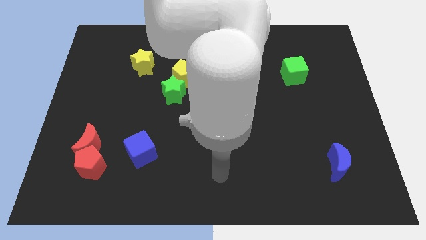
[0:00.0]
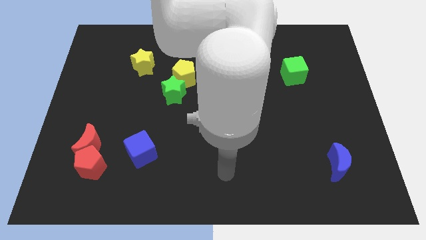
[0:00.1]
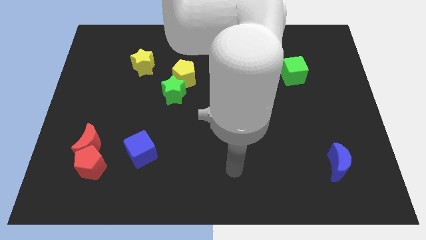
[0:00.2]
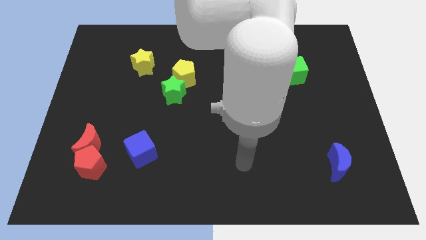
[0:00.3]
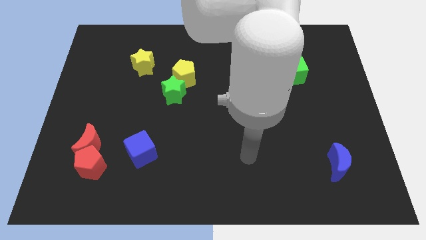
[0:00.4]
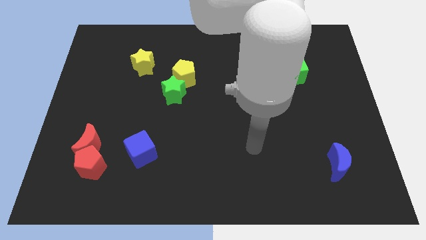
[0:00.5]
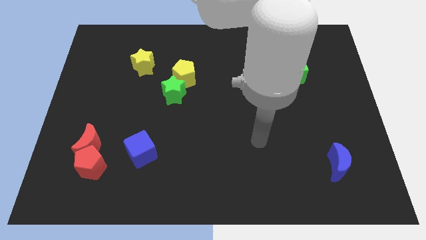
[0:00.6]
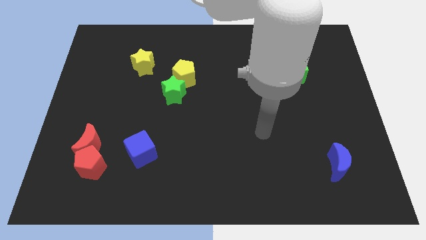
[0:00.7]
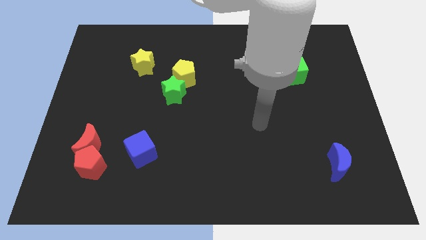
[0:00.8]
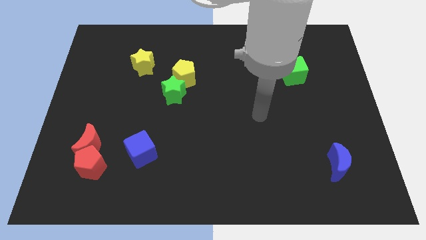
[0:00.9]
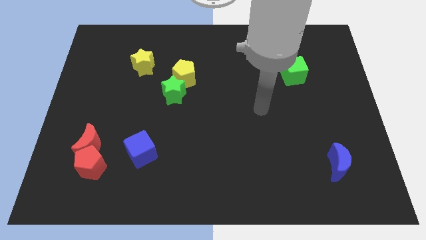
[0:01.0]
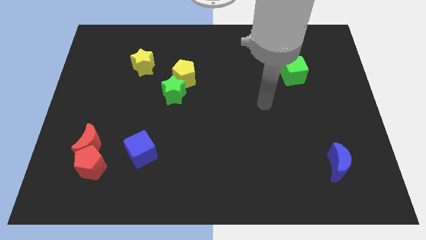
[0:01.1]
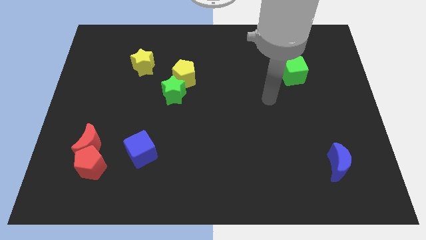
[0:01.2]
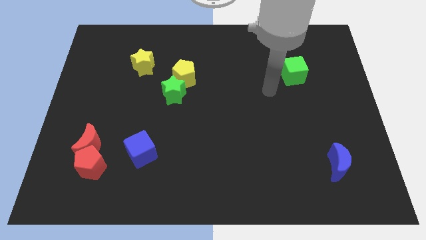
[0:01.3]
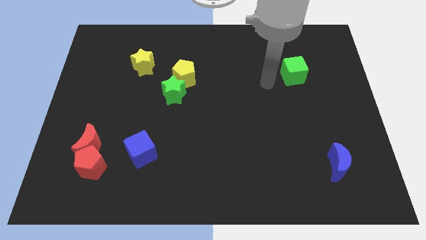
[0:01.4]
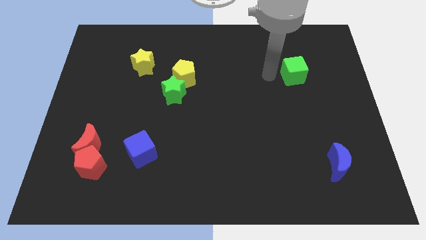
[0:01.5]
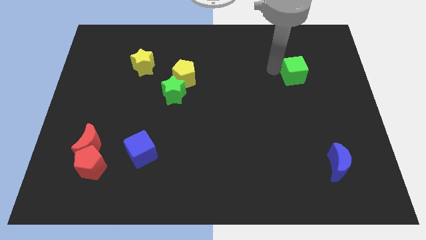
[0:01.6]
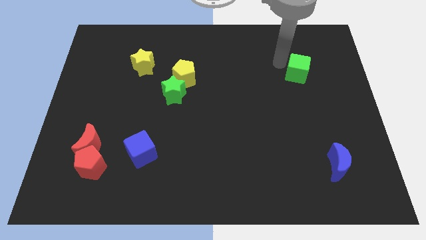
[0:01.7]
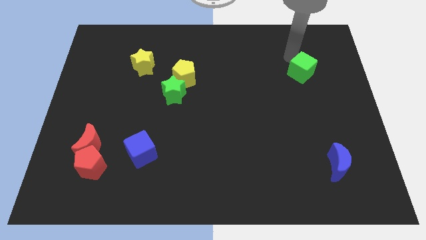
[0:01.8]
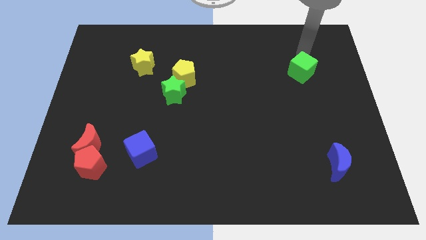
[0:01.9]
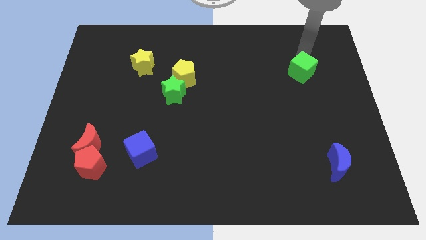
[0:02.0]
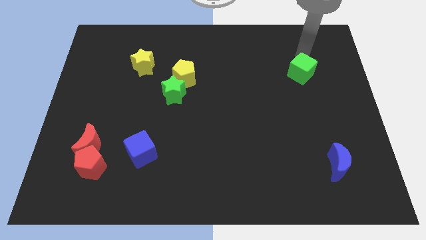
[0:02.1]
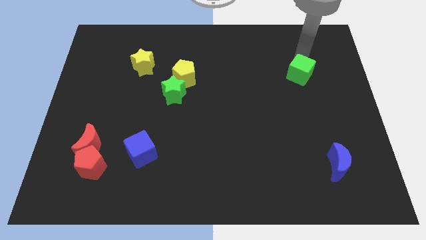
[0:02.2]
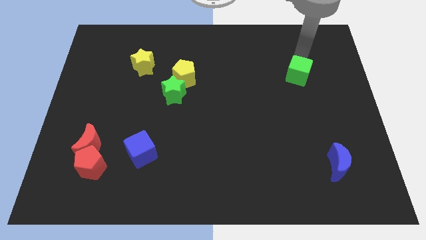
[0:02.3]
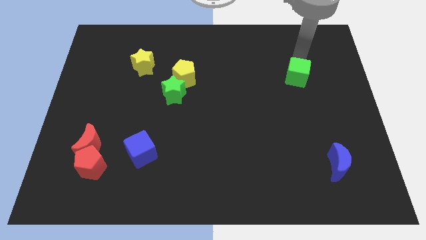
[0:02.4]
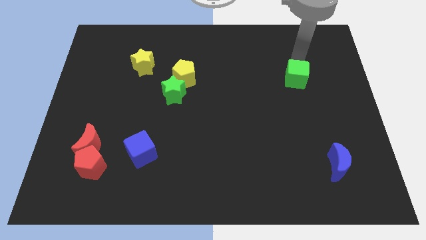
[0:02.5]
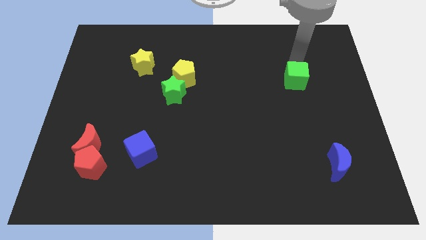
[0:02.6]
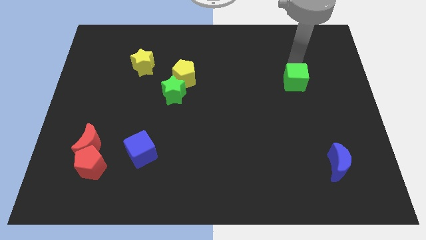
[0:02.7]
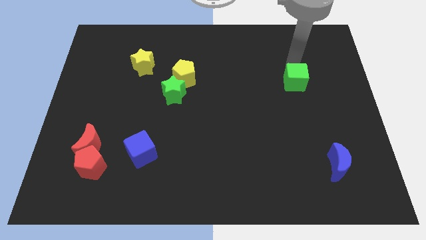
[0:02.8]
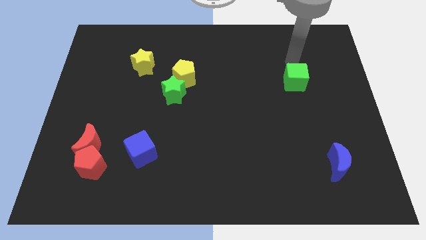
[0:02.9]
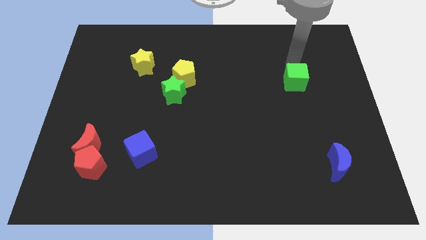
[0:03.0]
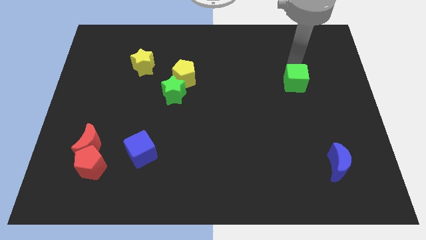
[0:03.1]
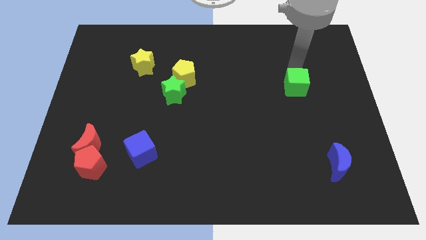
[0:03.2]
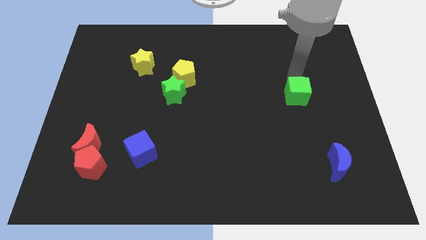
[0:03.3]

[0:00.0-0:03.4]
slightly push the green cube downwards

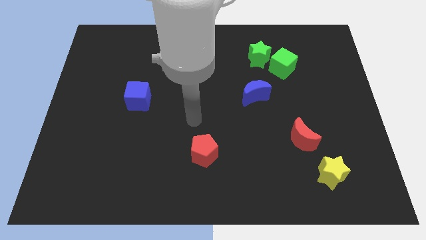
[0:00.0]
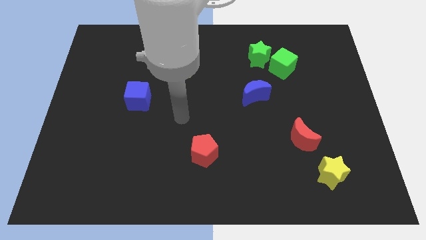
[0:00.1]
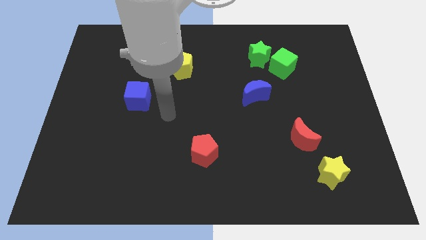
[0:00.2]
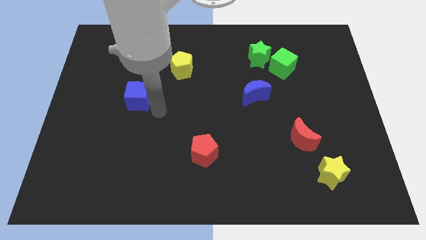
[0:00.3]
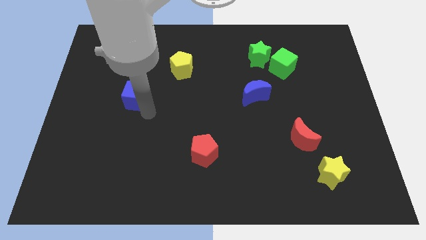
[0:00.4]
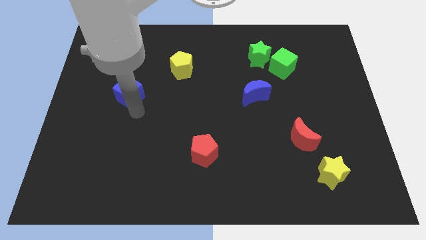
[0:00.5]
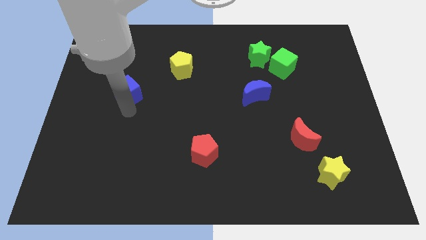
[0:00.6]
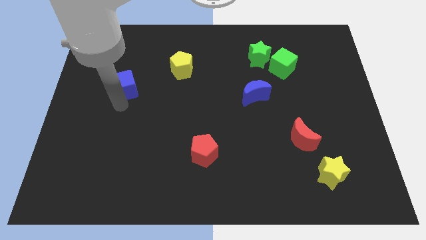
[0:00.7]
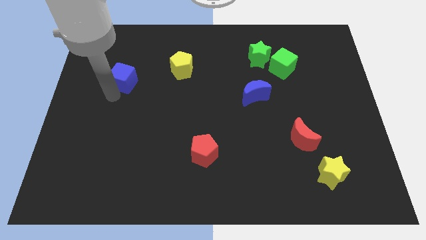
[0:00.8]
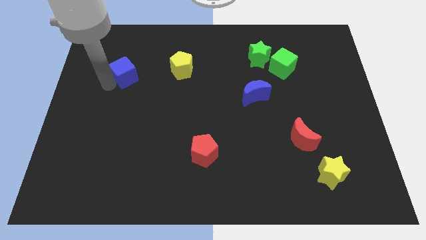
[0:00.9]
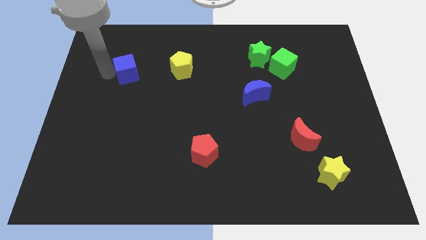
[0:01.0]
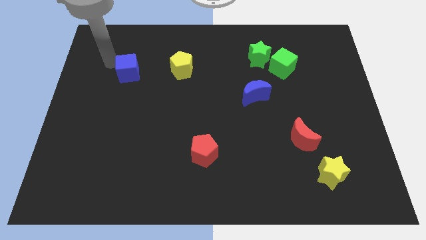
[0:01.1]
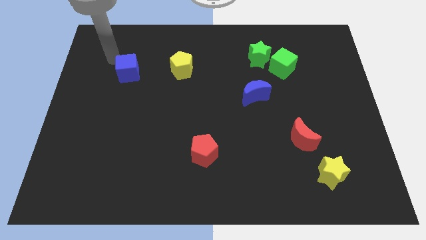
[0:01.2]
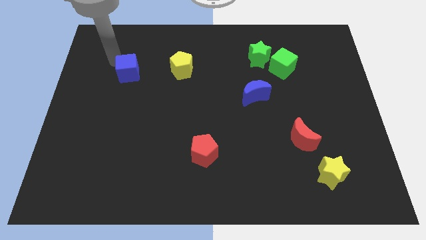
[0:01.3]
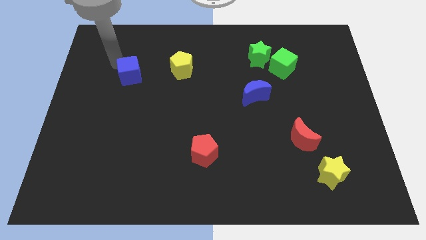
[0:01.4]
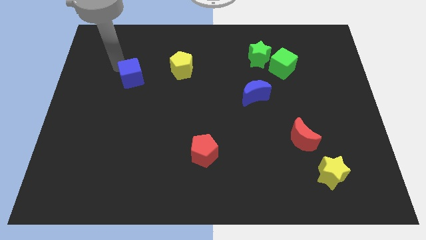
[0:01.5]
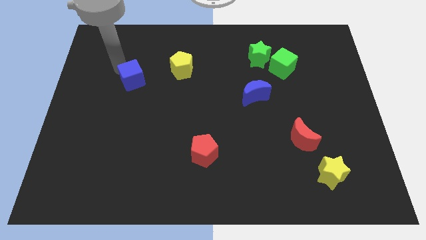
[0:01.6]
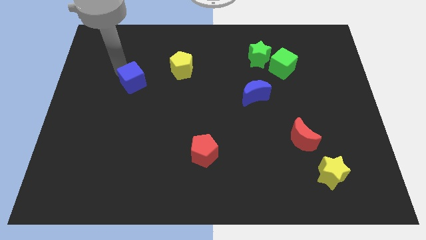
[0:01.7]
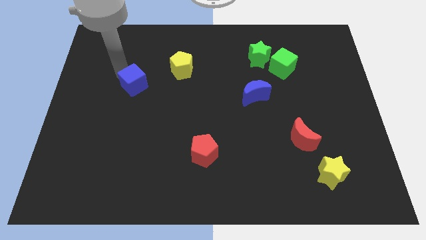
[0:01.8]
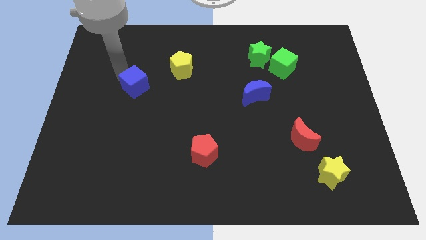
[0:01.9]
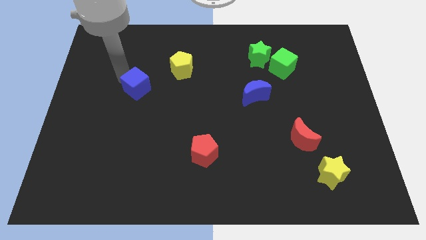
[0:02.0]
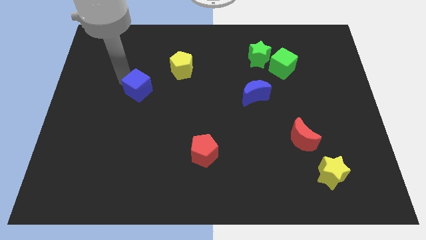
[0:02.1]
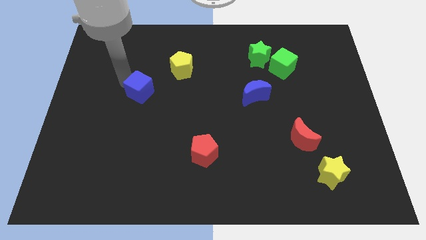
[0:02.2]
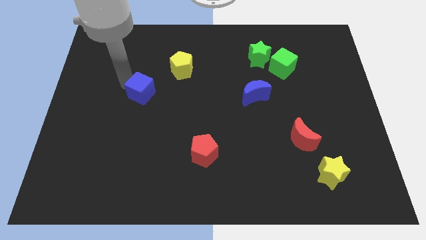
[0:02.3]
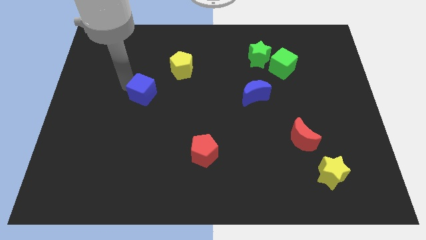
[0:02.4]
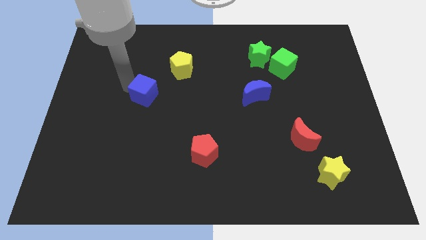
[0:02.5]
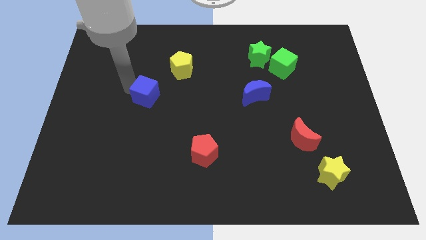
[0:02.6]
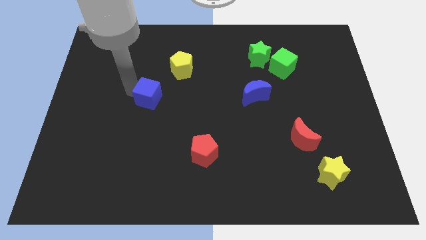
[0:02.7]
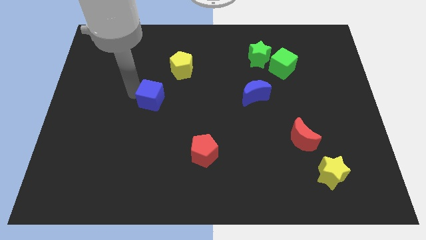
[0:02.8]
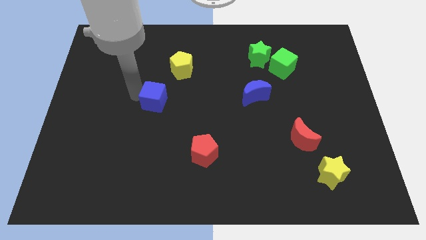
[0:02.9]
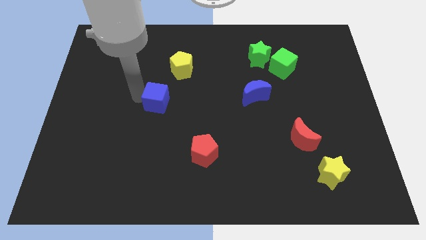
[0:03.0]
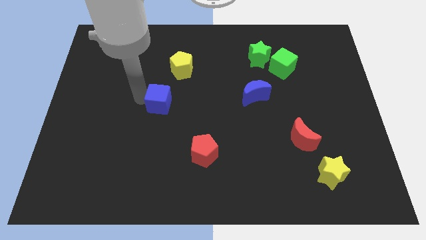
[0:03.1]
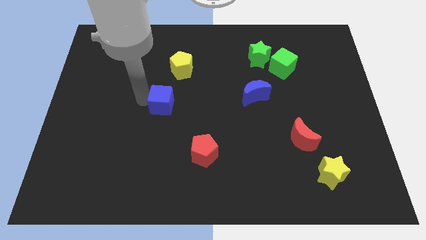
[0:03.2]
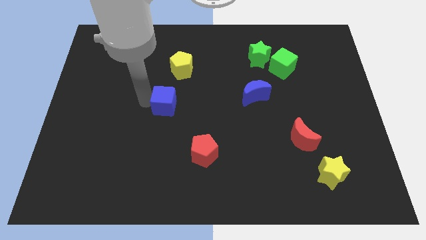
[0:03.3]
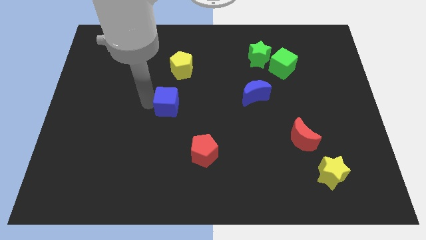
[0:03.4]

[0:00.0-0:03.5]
slightly slide the blue cube right

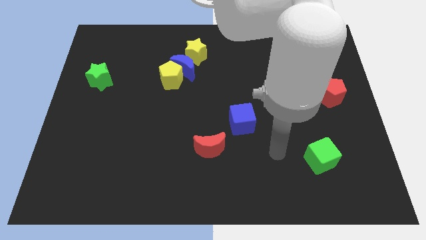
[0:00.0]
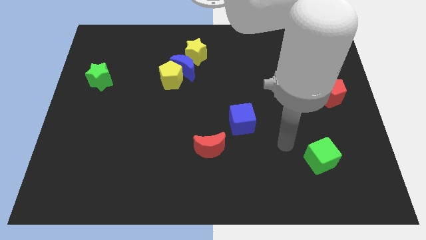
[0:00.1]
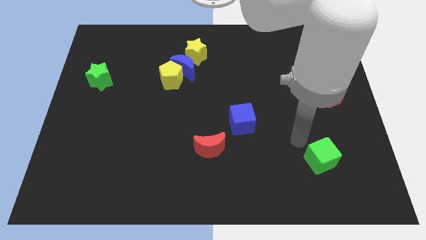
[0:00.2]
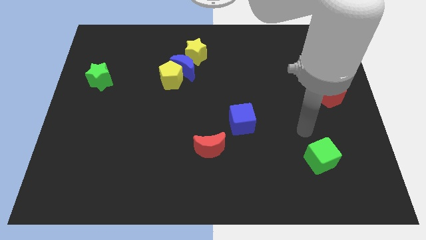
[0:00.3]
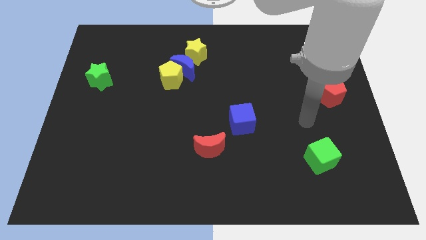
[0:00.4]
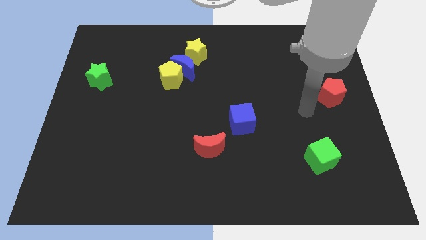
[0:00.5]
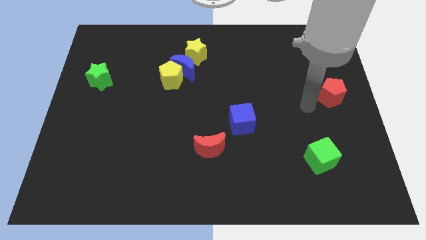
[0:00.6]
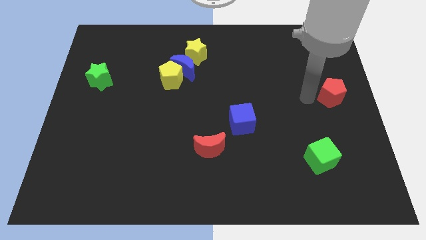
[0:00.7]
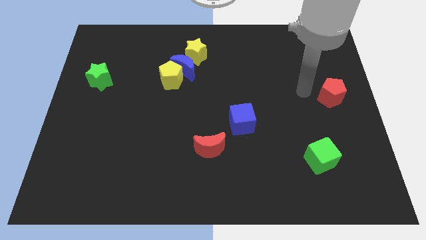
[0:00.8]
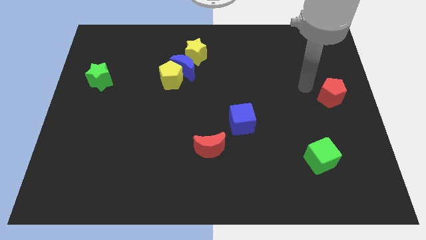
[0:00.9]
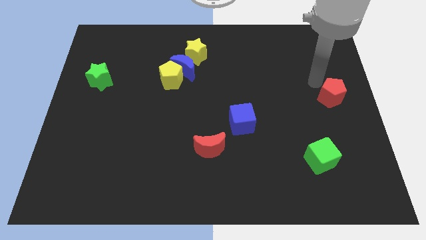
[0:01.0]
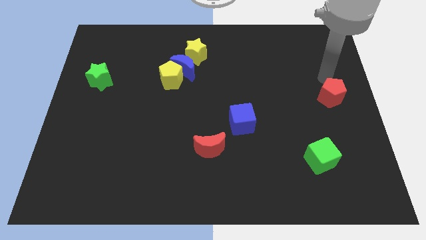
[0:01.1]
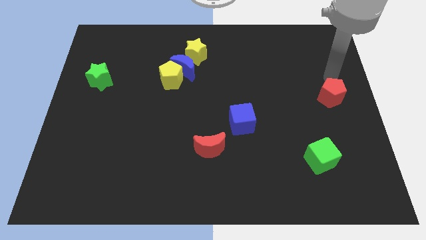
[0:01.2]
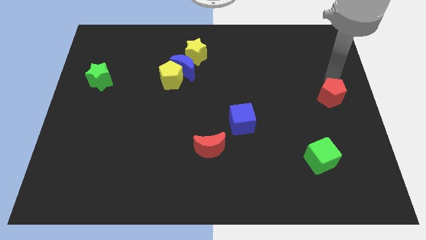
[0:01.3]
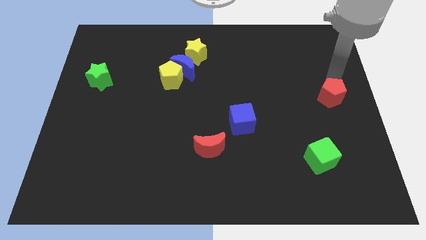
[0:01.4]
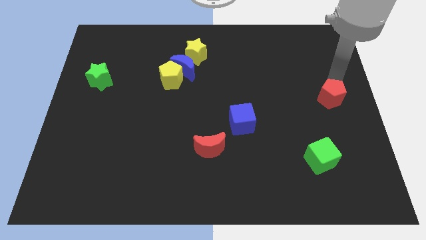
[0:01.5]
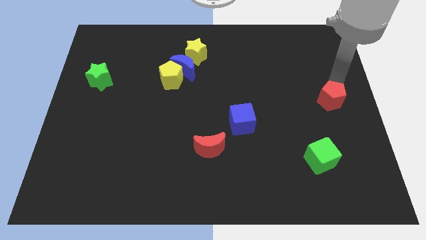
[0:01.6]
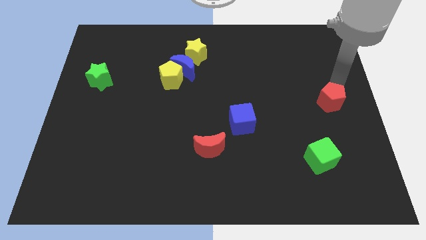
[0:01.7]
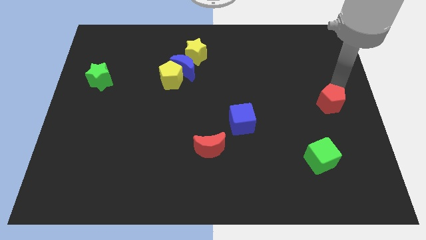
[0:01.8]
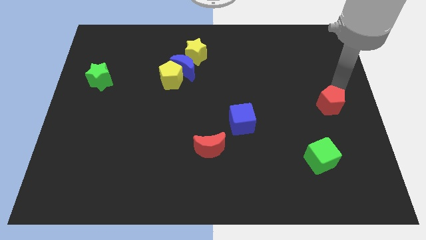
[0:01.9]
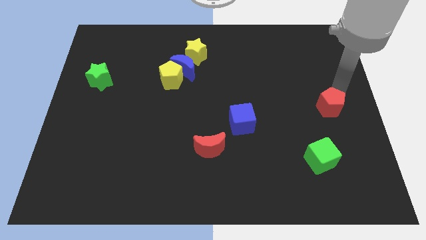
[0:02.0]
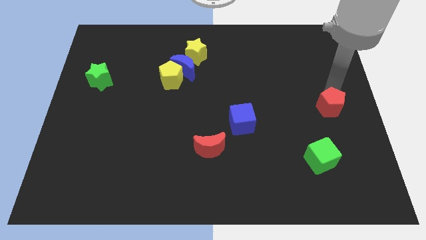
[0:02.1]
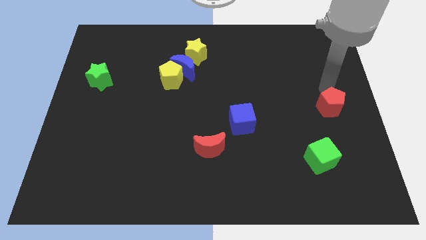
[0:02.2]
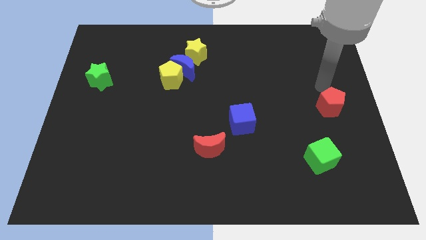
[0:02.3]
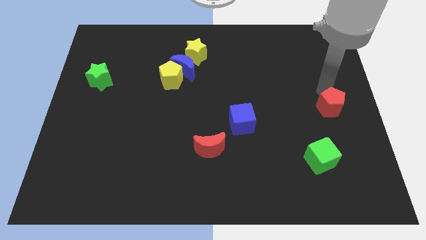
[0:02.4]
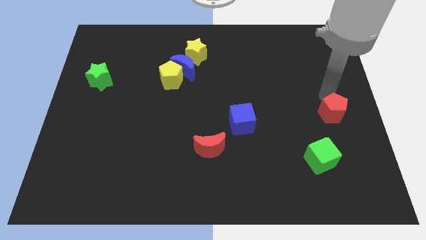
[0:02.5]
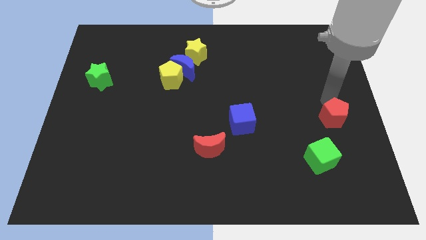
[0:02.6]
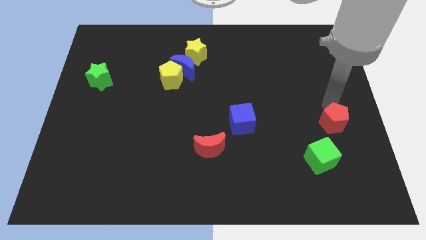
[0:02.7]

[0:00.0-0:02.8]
slide the red pentagon a little bit down
